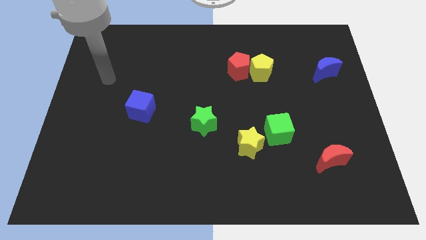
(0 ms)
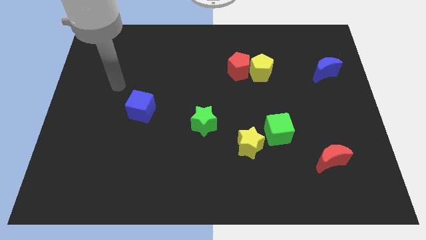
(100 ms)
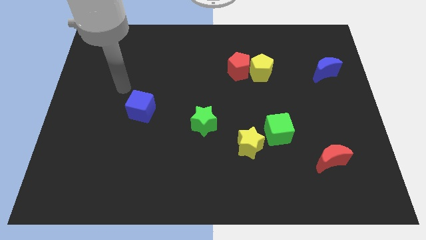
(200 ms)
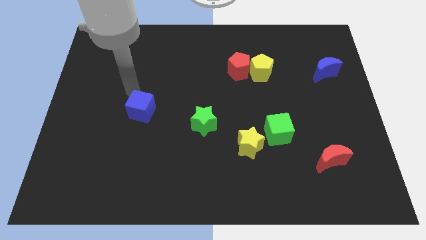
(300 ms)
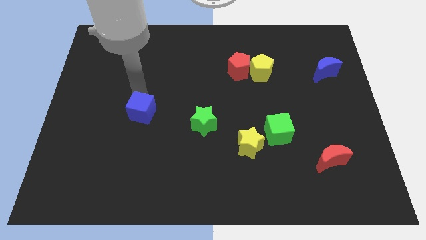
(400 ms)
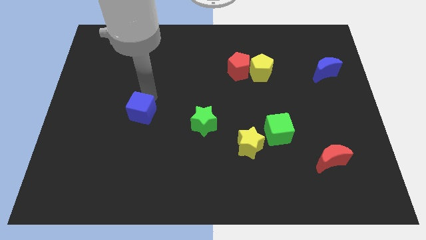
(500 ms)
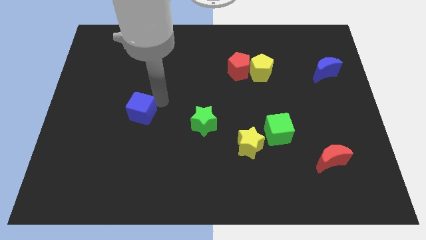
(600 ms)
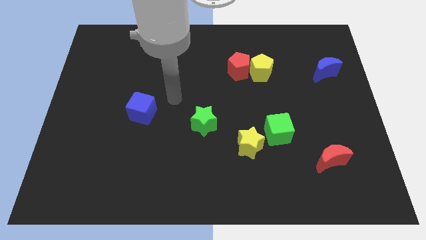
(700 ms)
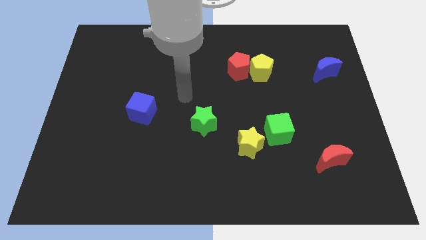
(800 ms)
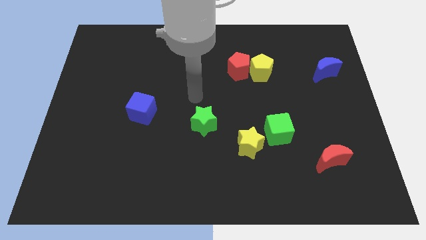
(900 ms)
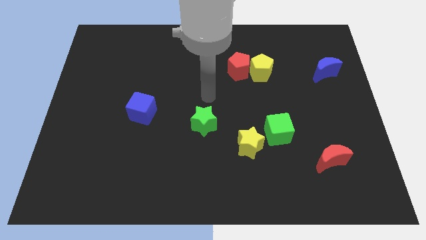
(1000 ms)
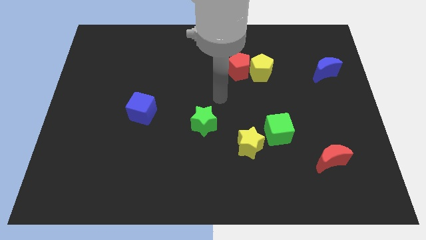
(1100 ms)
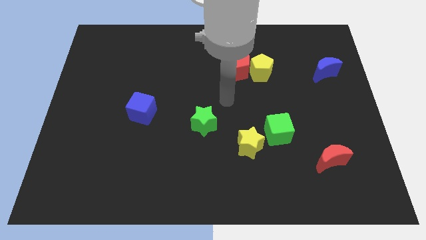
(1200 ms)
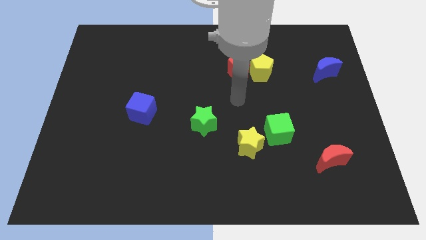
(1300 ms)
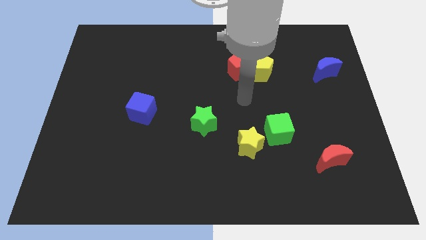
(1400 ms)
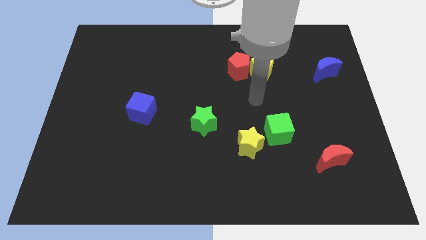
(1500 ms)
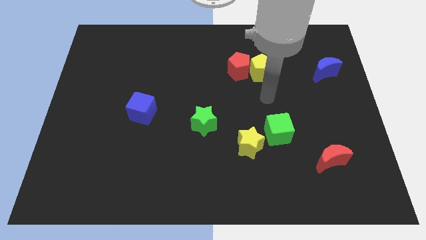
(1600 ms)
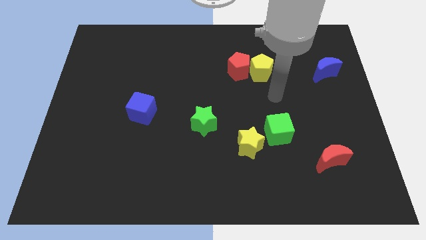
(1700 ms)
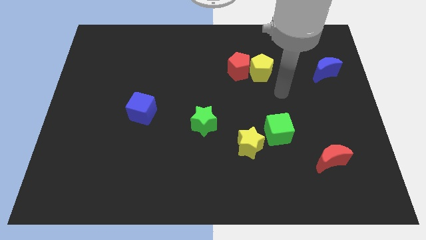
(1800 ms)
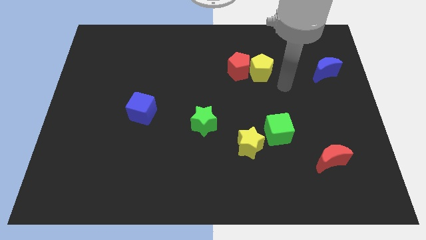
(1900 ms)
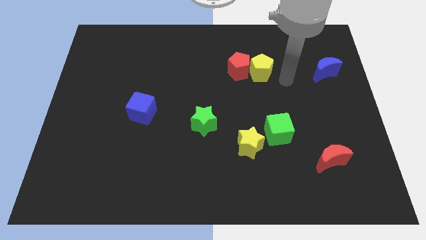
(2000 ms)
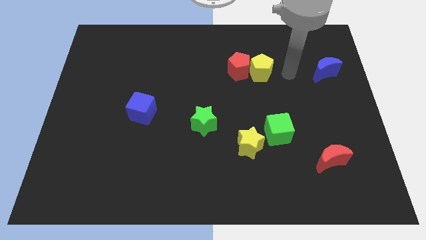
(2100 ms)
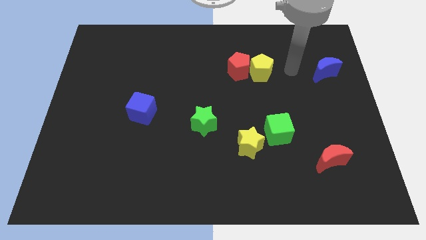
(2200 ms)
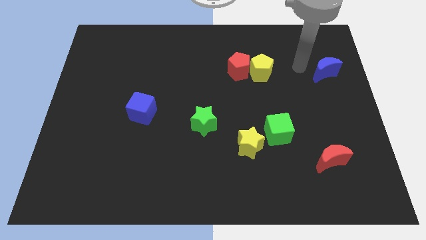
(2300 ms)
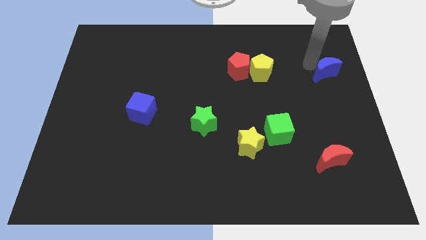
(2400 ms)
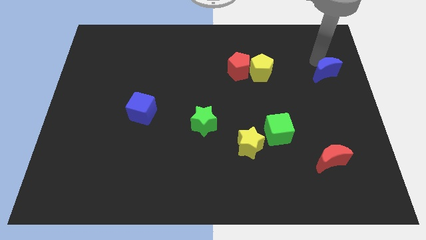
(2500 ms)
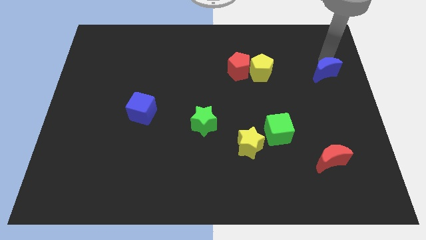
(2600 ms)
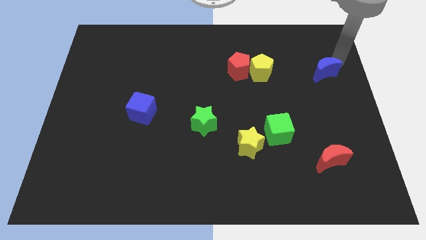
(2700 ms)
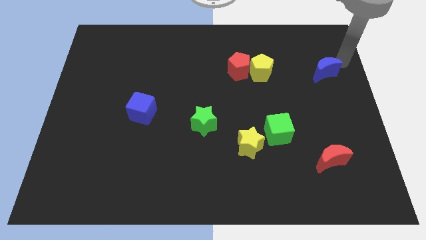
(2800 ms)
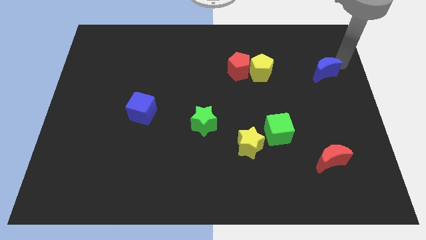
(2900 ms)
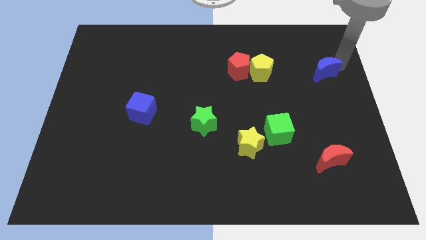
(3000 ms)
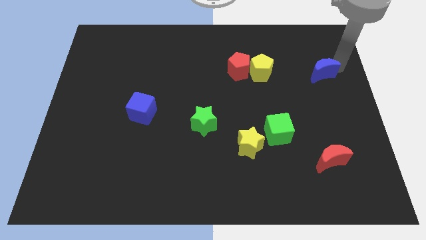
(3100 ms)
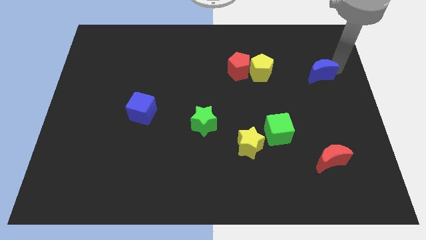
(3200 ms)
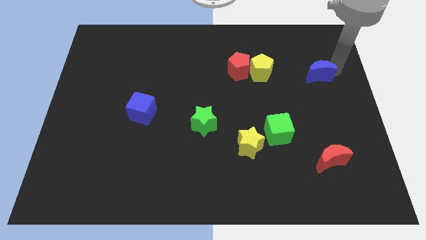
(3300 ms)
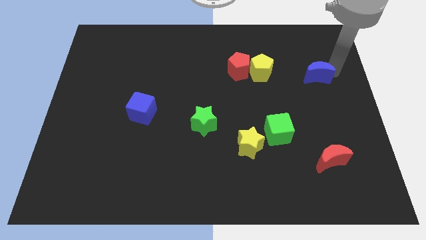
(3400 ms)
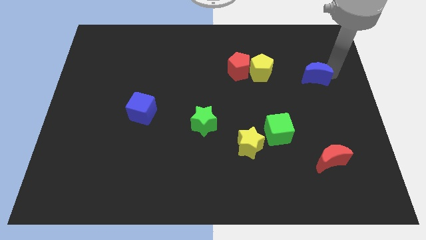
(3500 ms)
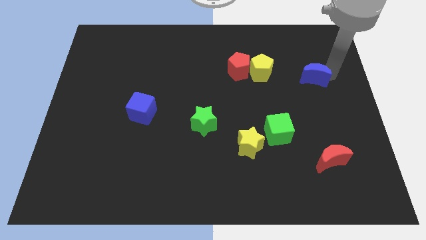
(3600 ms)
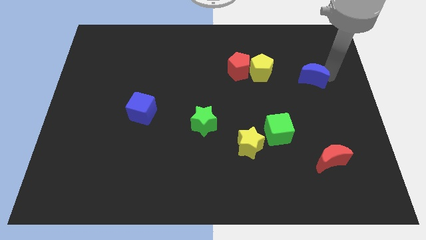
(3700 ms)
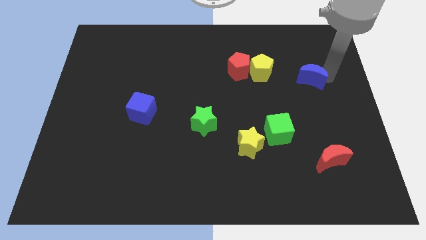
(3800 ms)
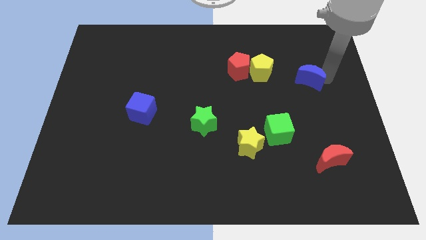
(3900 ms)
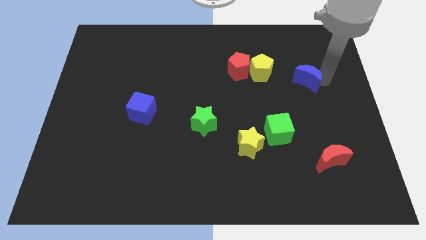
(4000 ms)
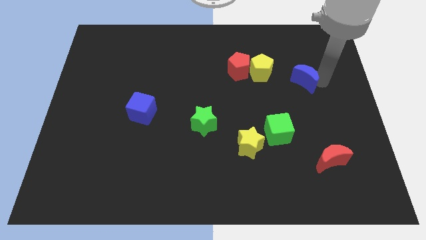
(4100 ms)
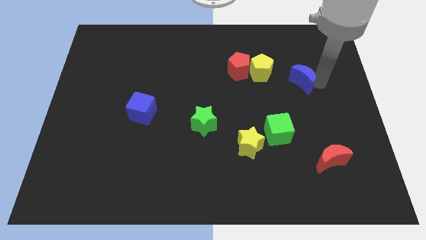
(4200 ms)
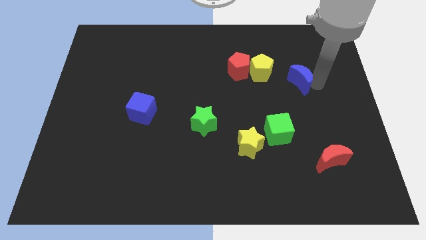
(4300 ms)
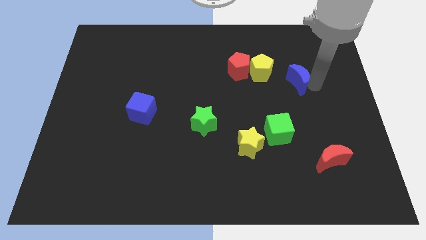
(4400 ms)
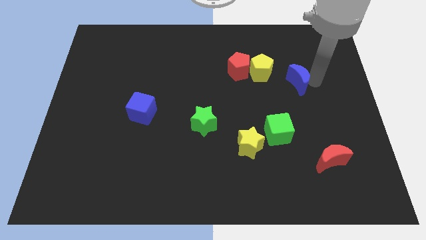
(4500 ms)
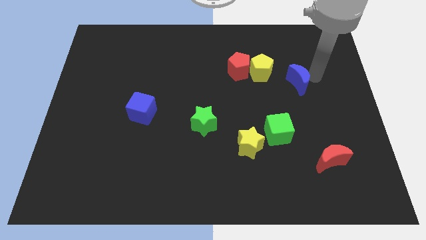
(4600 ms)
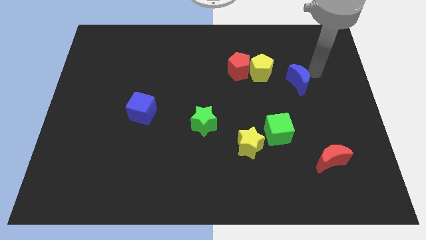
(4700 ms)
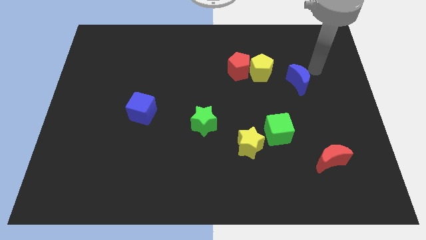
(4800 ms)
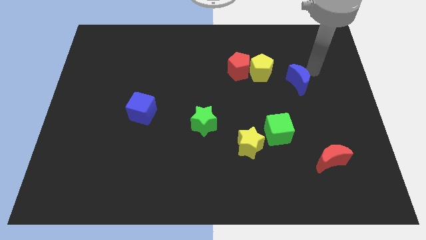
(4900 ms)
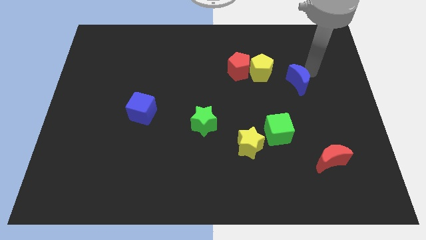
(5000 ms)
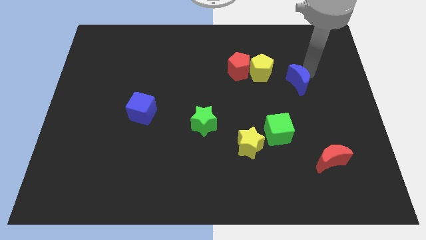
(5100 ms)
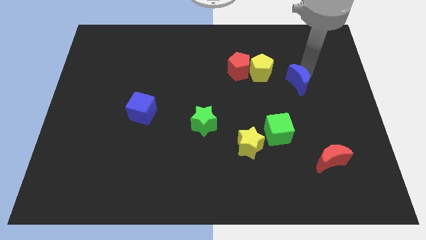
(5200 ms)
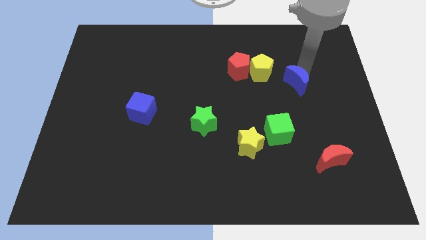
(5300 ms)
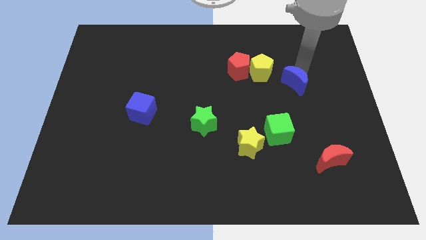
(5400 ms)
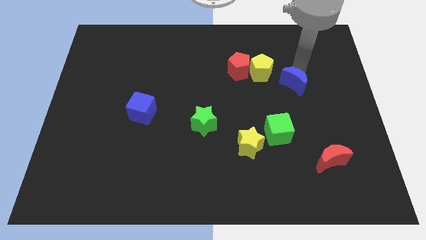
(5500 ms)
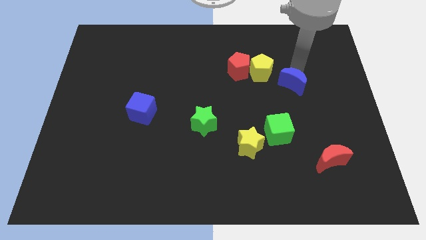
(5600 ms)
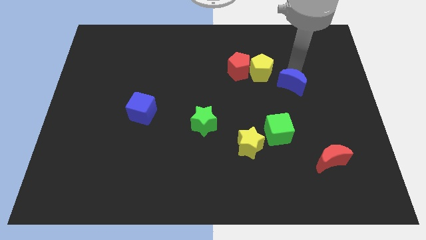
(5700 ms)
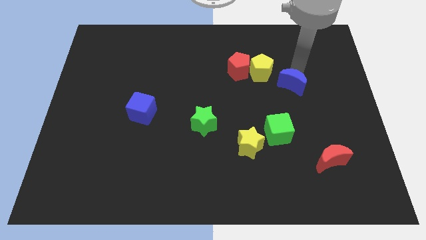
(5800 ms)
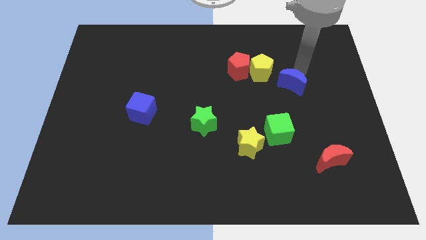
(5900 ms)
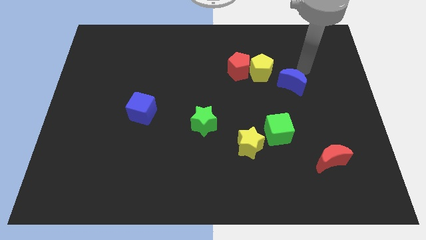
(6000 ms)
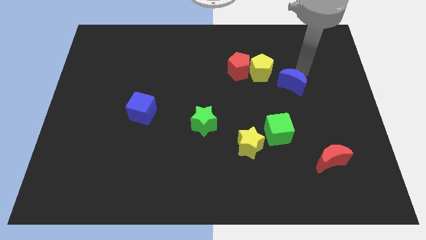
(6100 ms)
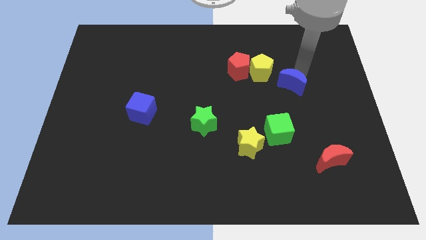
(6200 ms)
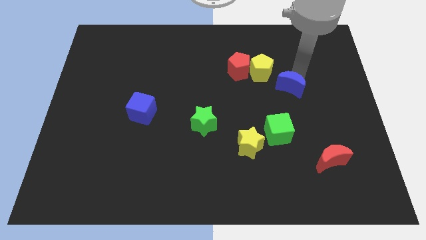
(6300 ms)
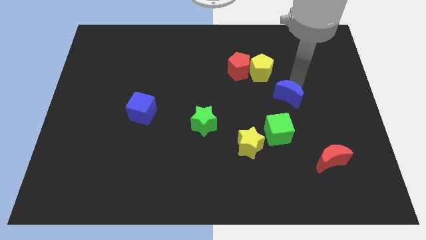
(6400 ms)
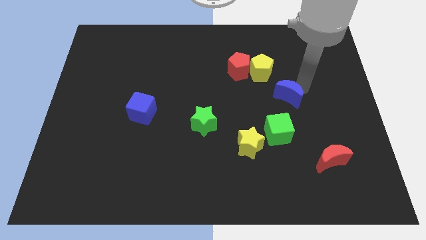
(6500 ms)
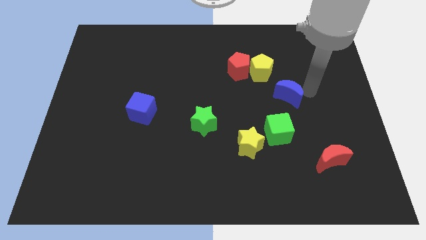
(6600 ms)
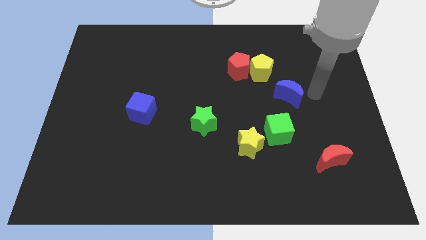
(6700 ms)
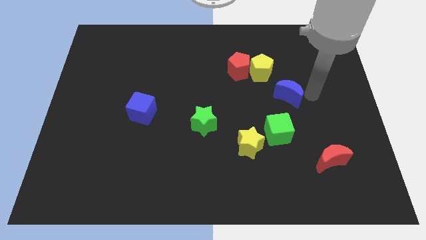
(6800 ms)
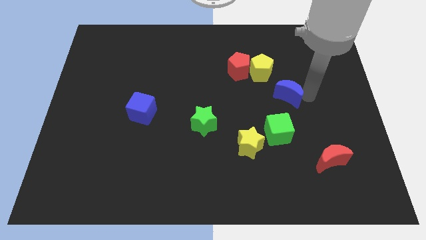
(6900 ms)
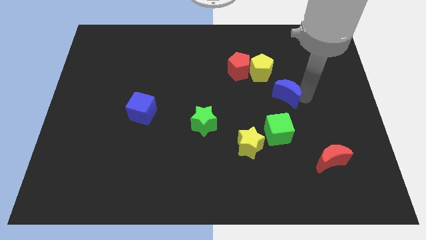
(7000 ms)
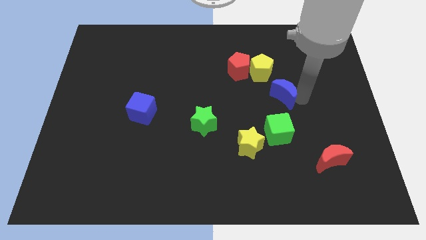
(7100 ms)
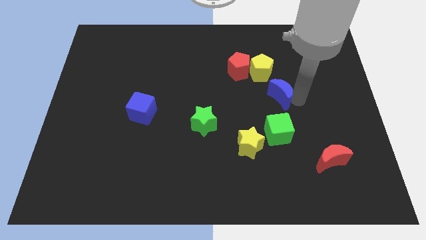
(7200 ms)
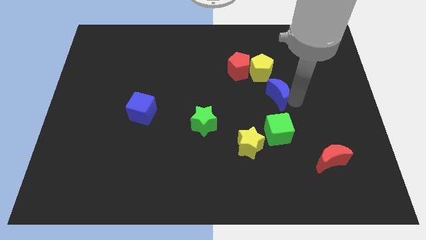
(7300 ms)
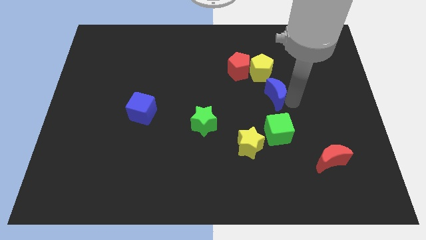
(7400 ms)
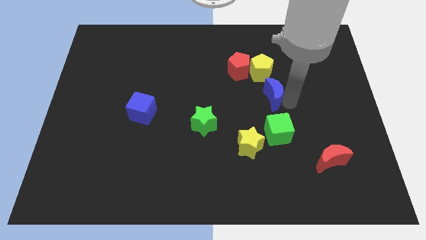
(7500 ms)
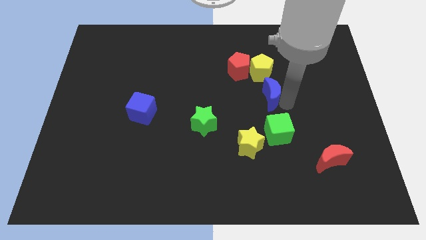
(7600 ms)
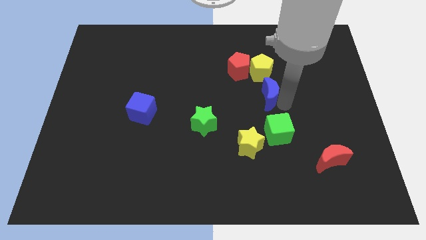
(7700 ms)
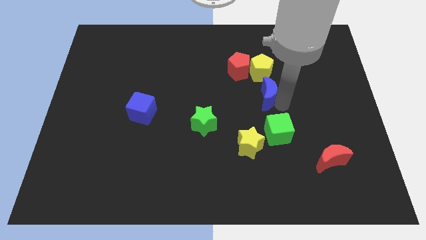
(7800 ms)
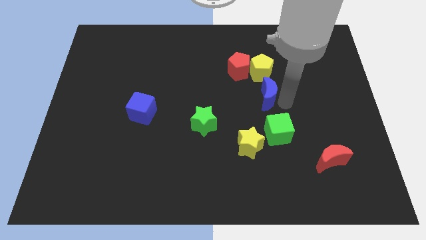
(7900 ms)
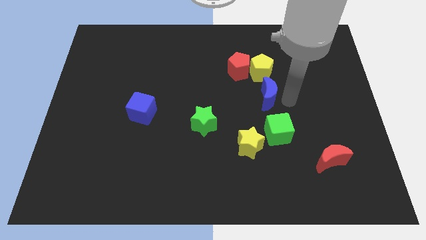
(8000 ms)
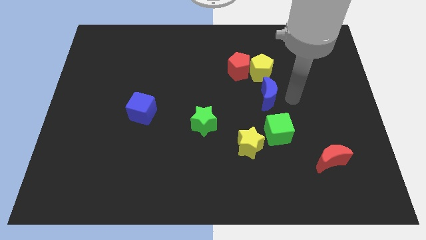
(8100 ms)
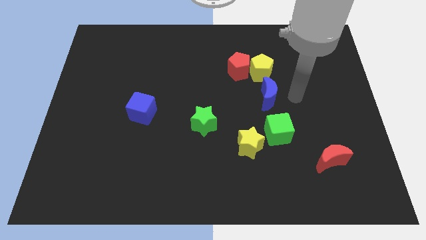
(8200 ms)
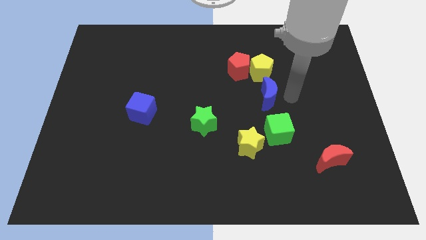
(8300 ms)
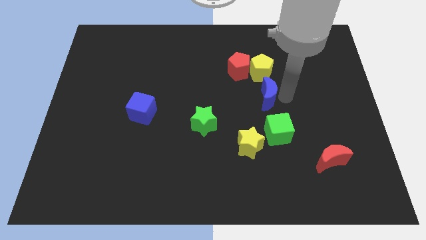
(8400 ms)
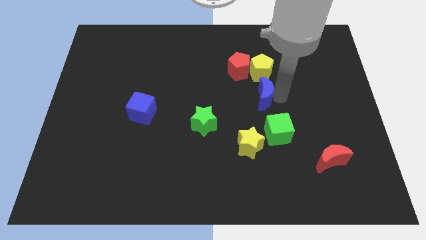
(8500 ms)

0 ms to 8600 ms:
push the blue moon to the middle
